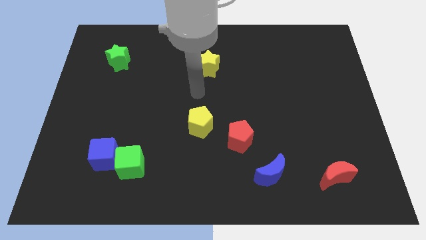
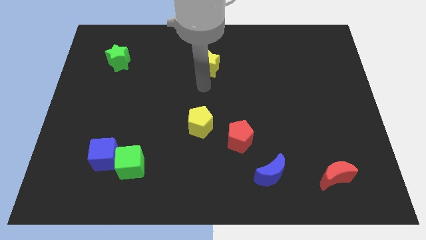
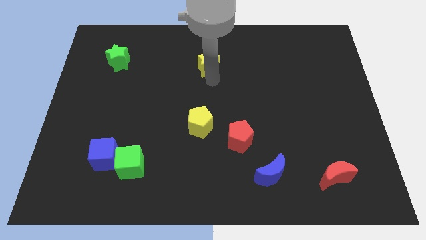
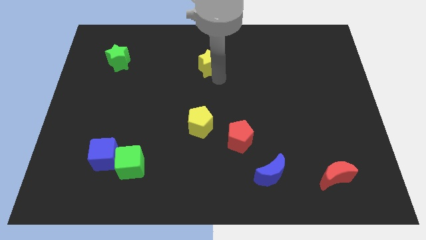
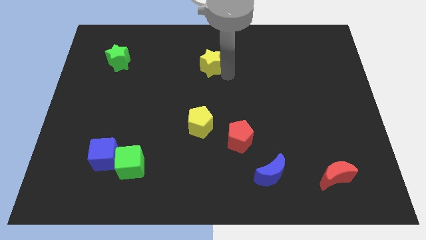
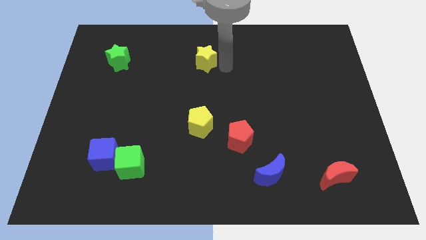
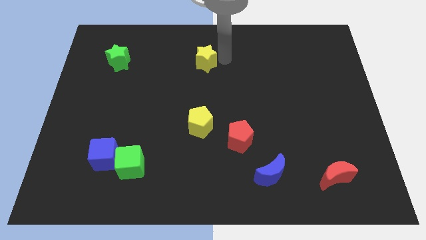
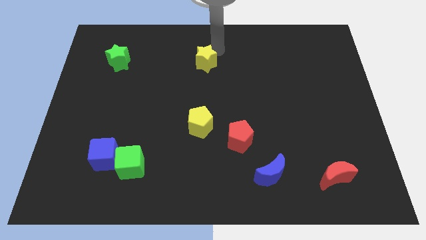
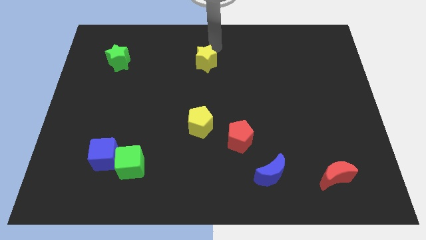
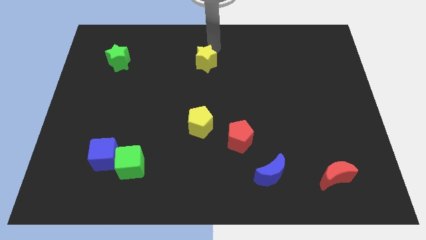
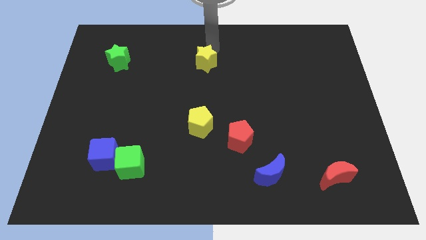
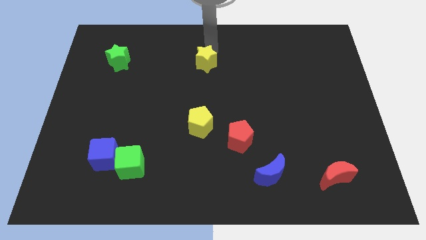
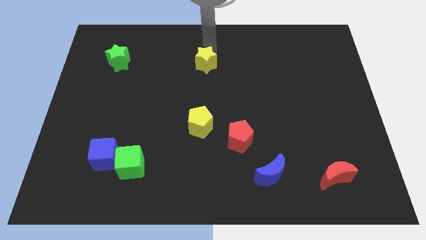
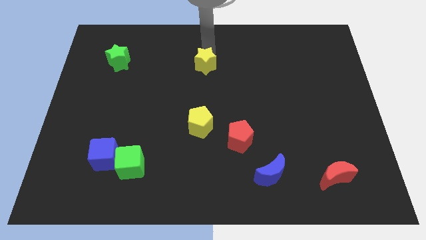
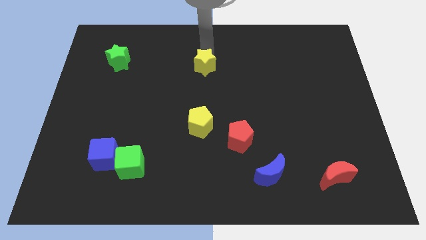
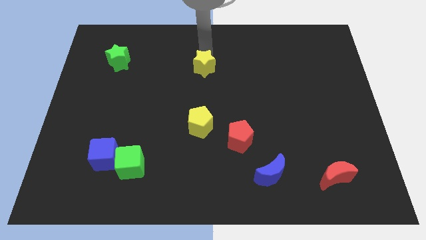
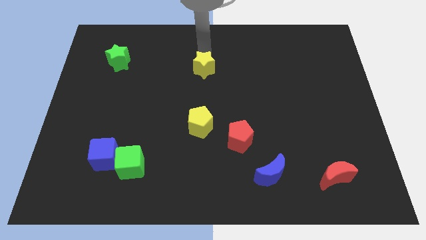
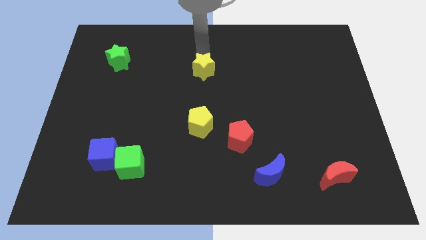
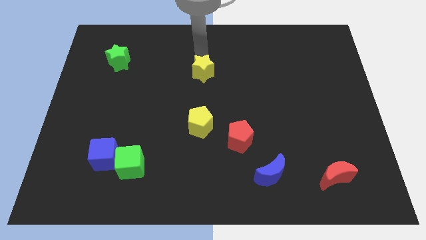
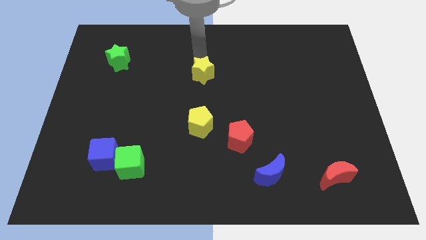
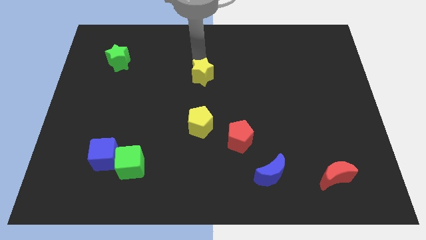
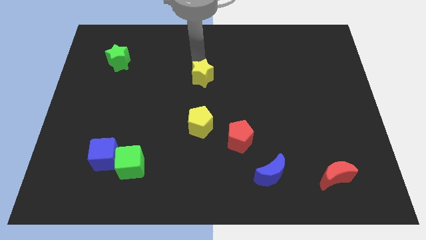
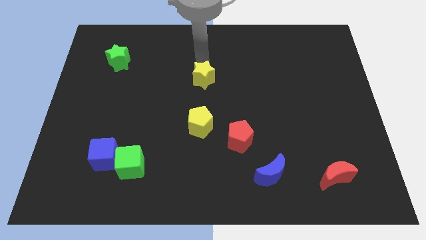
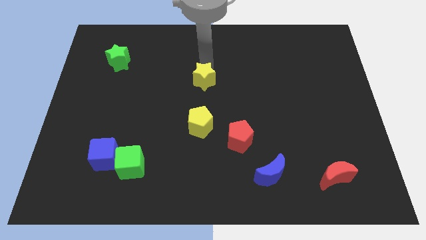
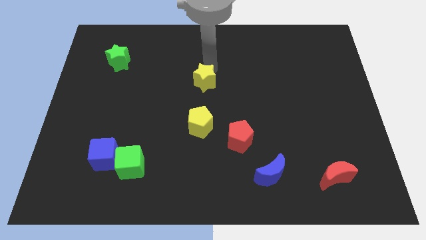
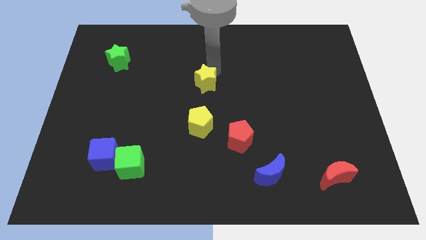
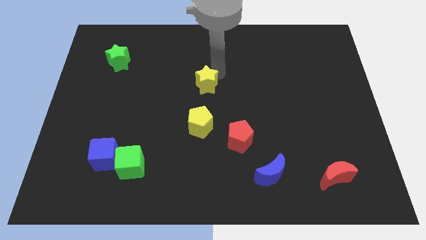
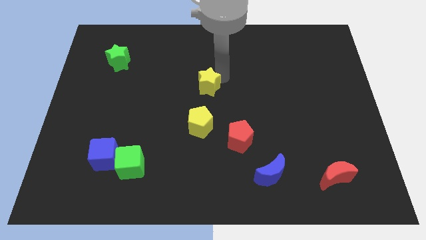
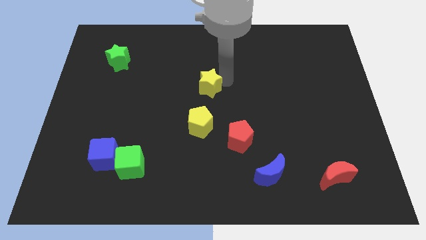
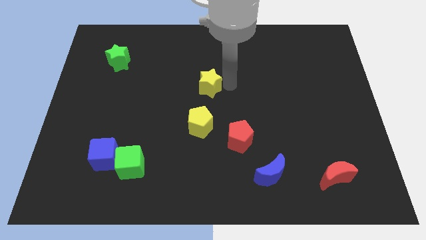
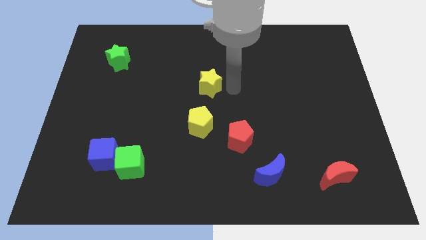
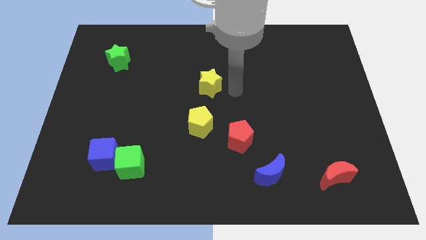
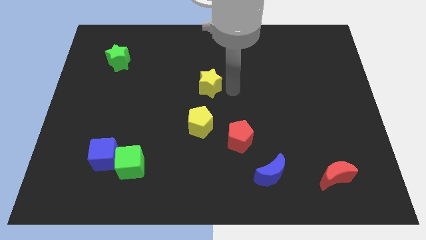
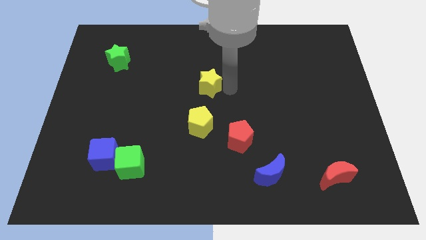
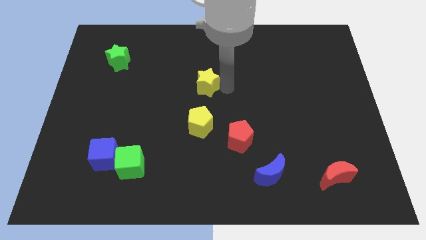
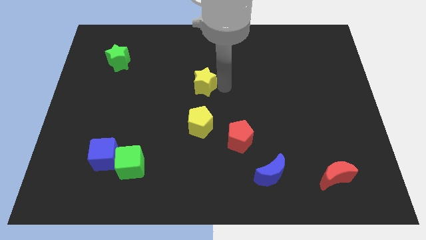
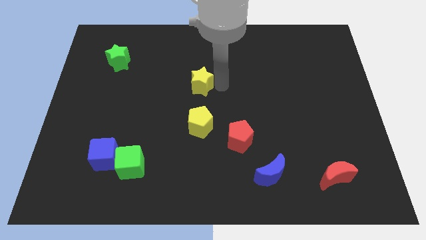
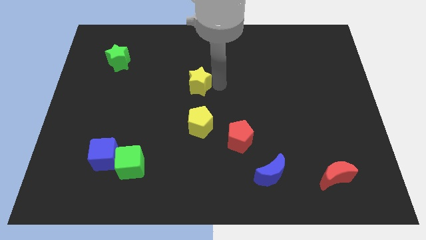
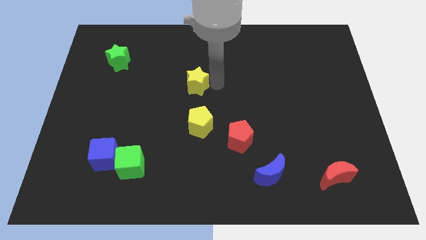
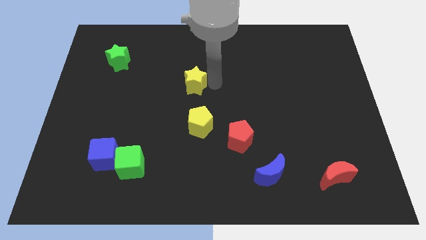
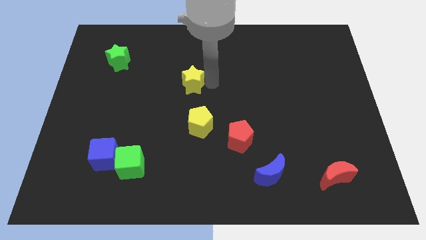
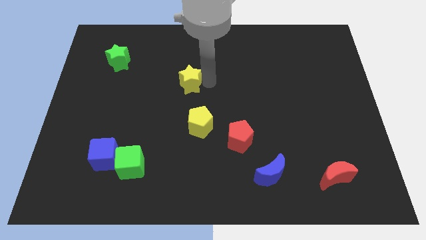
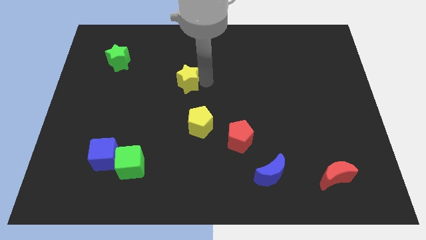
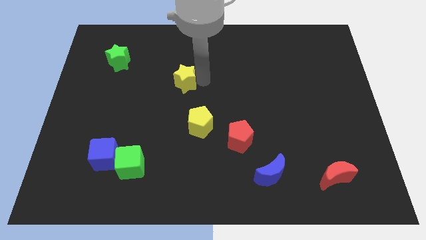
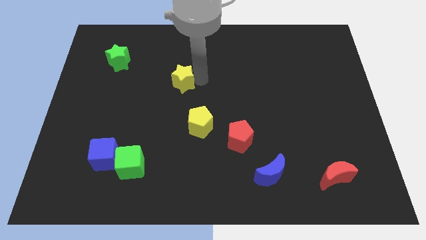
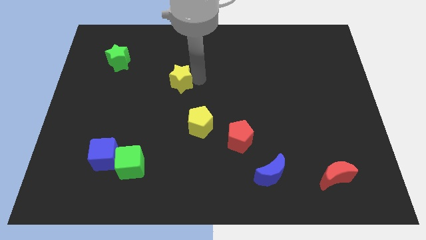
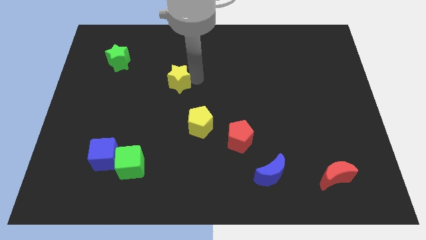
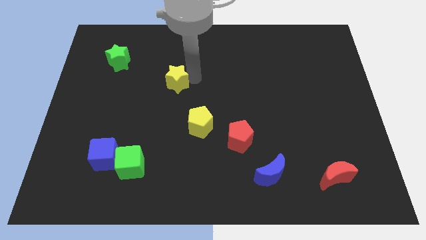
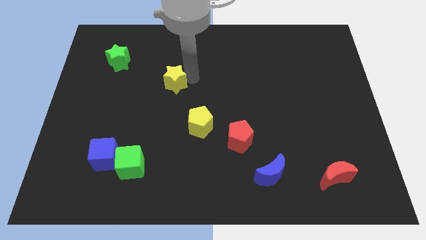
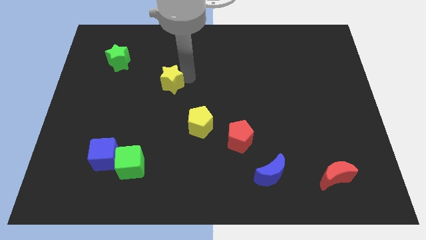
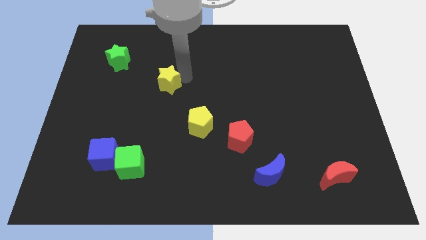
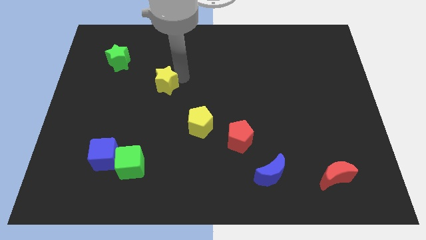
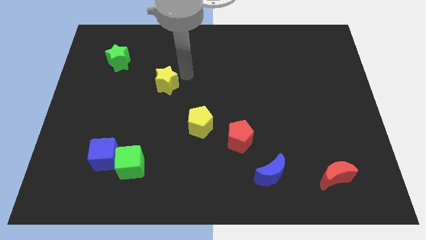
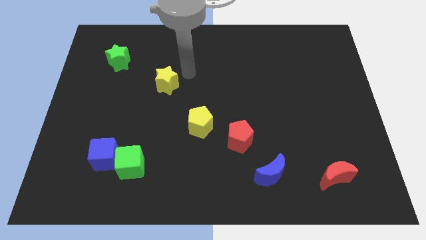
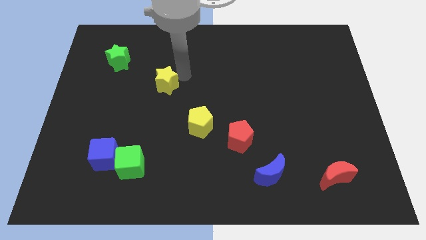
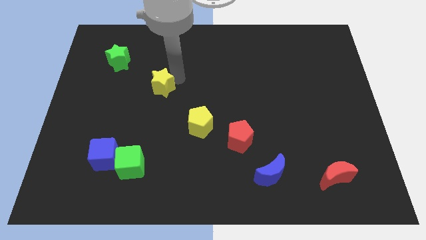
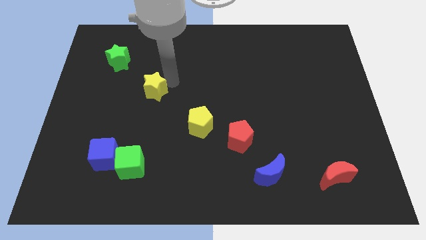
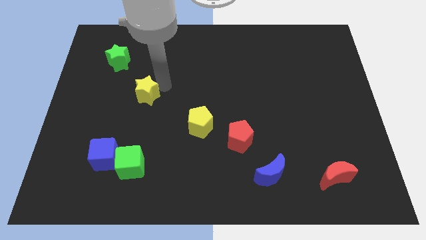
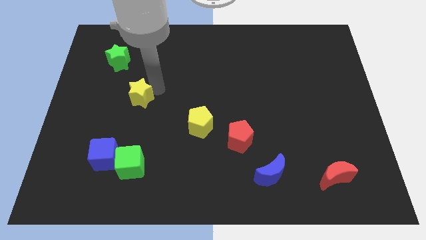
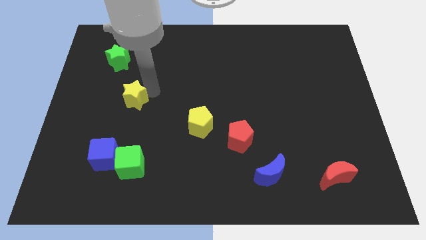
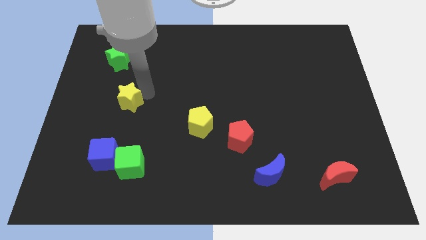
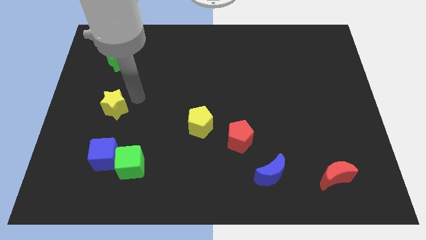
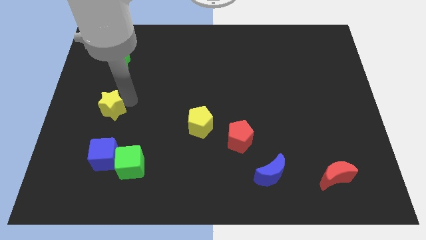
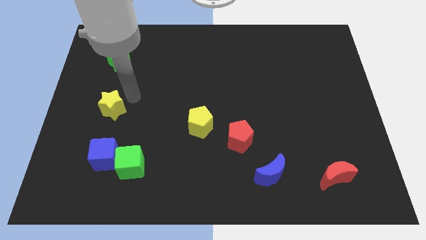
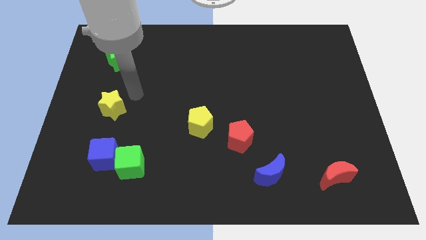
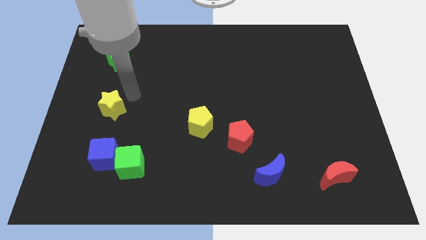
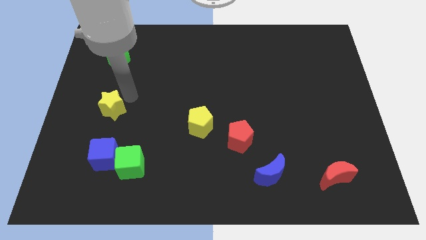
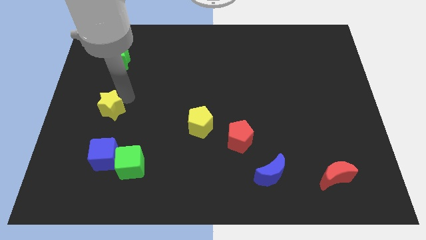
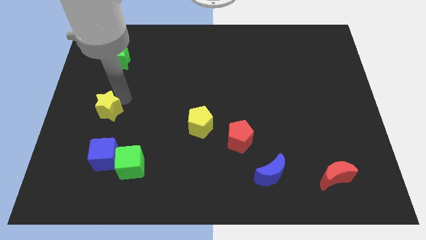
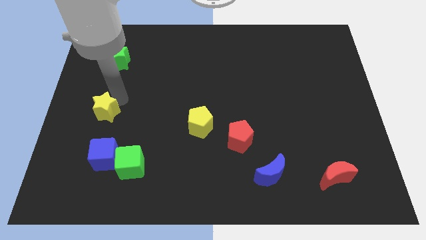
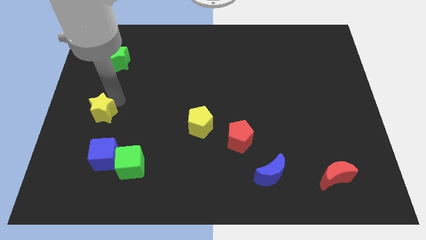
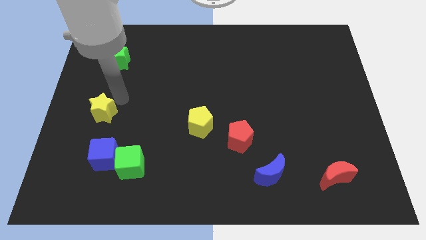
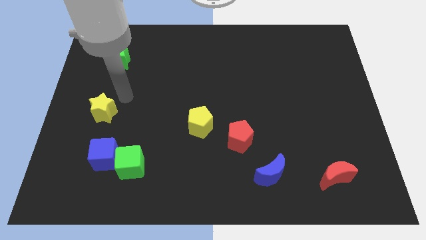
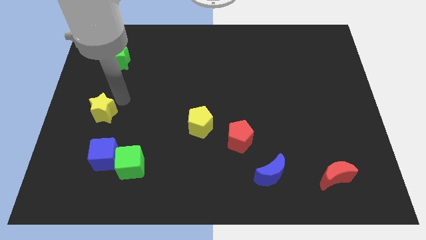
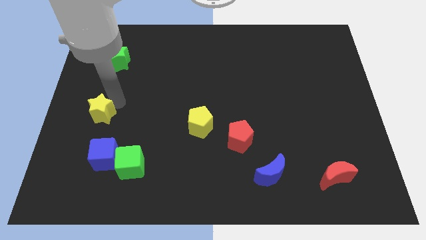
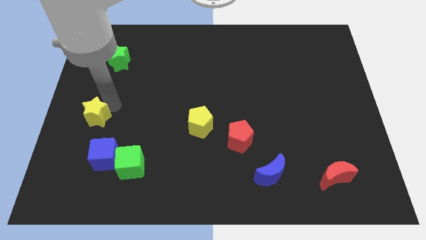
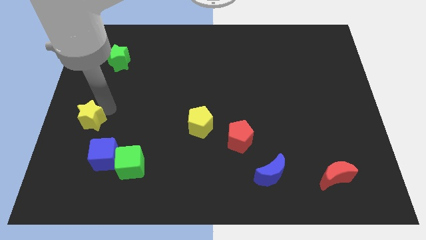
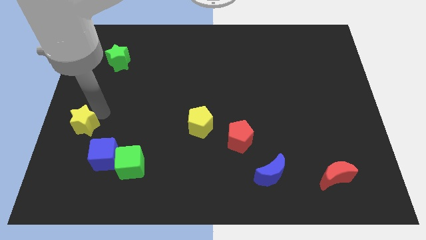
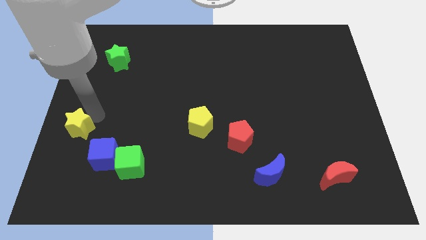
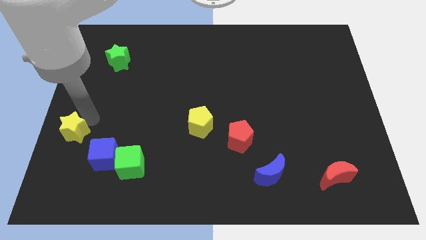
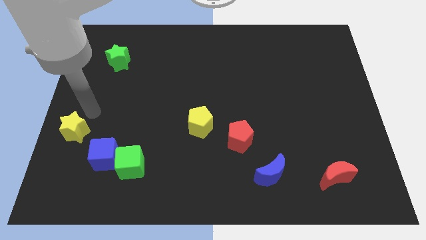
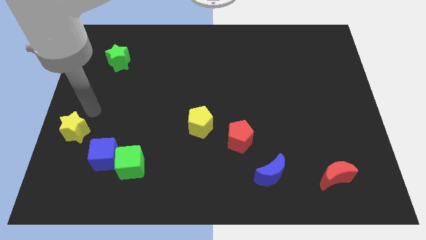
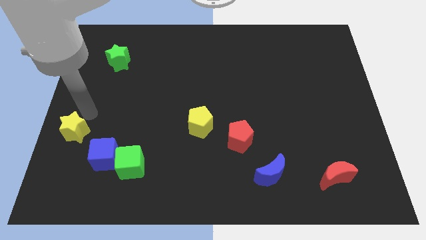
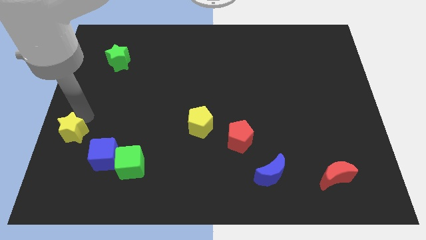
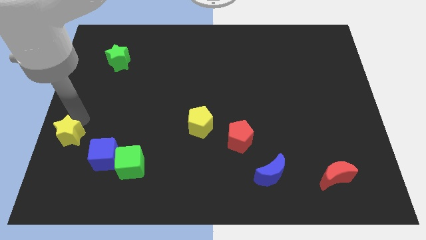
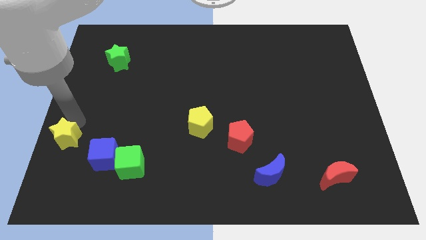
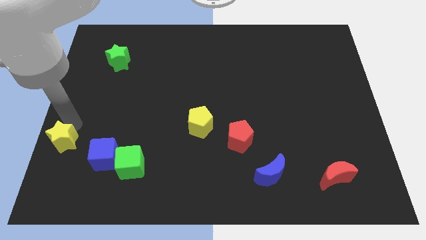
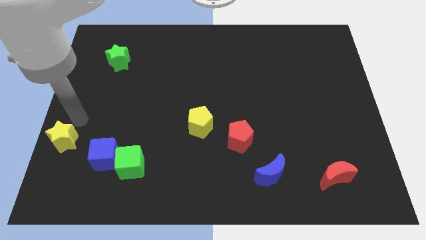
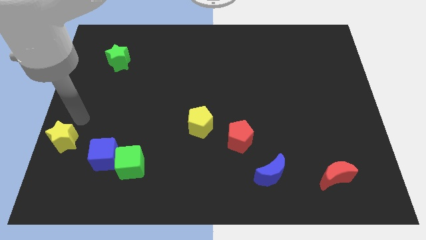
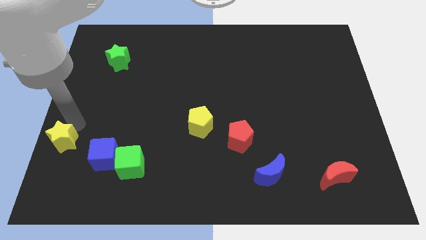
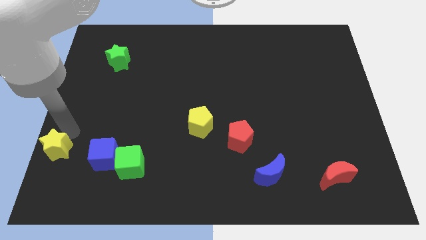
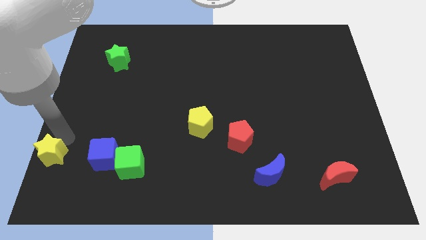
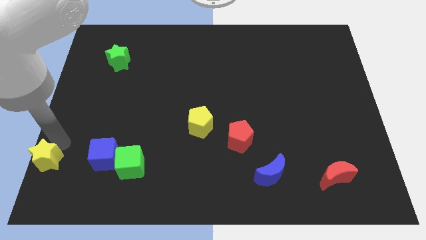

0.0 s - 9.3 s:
put the yellow star to the lower left corner
